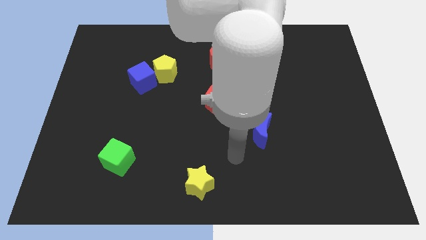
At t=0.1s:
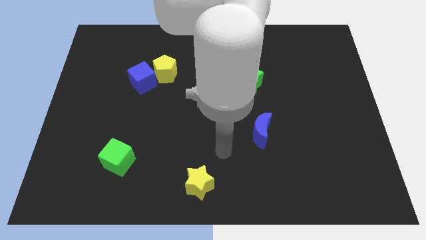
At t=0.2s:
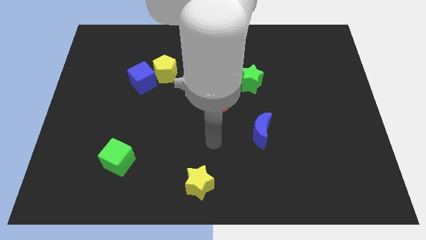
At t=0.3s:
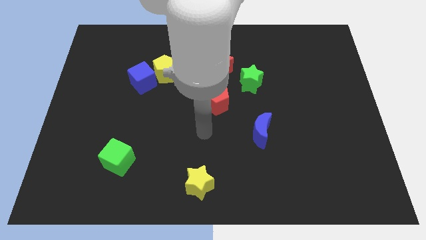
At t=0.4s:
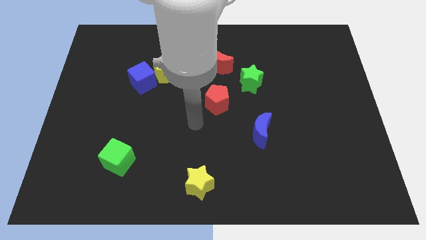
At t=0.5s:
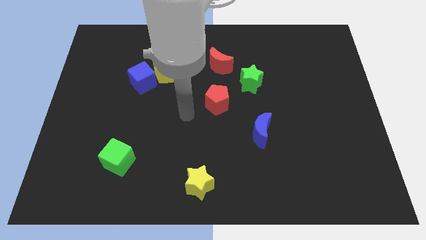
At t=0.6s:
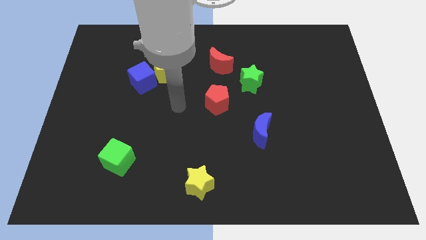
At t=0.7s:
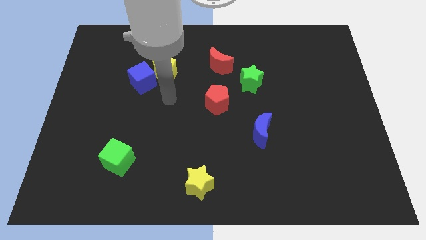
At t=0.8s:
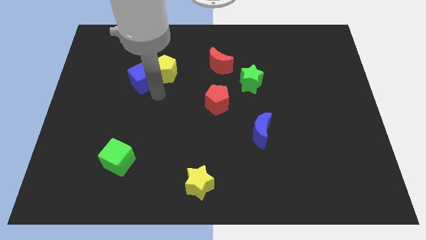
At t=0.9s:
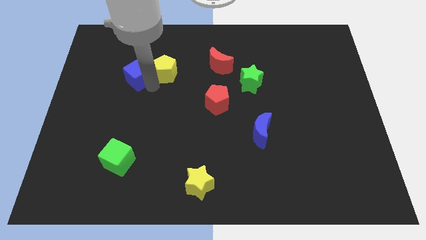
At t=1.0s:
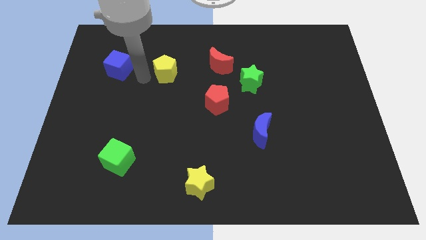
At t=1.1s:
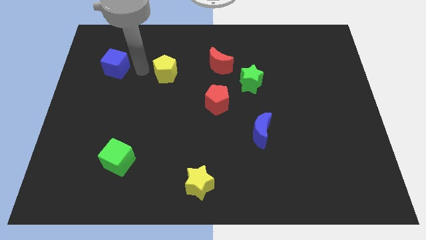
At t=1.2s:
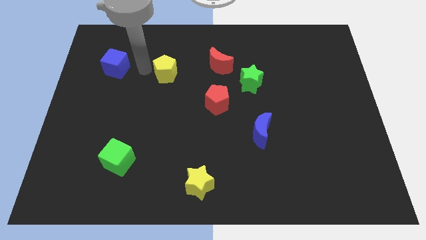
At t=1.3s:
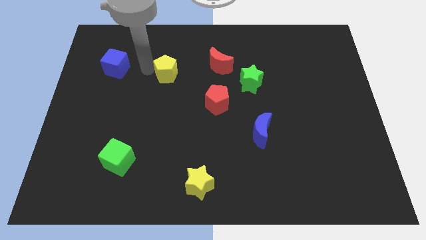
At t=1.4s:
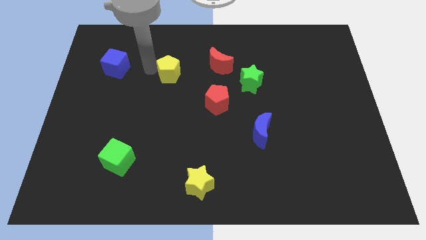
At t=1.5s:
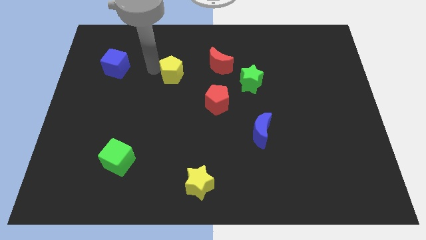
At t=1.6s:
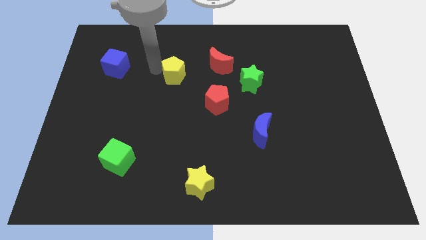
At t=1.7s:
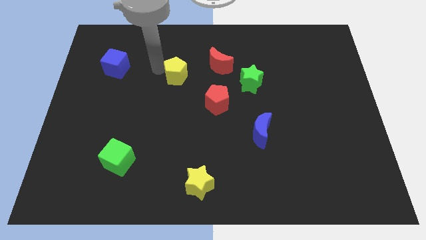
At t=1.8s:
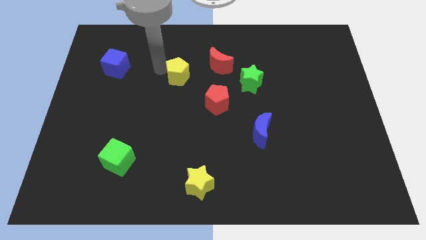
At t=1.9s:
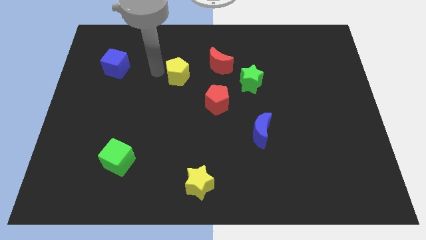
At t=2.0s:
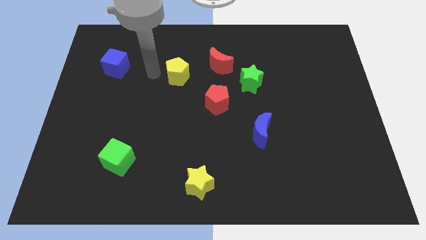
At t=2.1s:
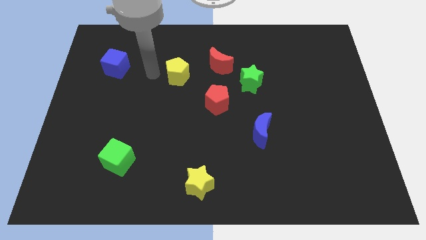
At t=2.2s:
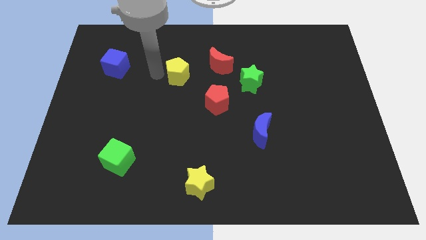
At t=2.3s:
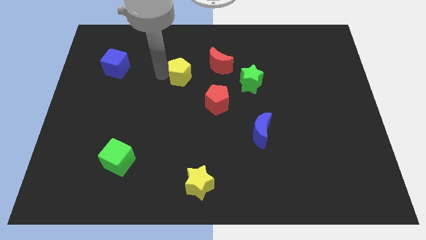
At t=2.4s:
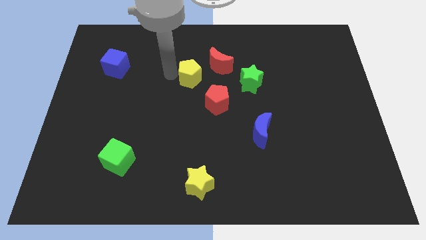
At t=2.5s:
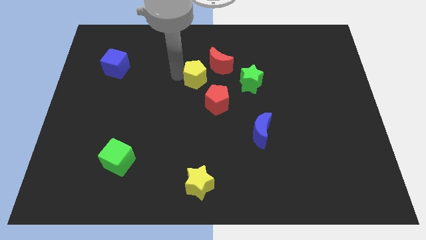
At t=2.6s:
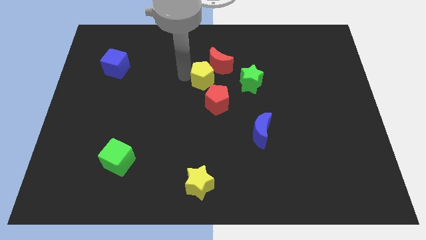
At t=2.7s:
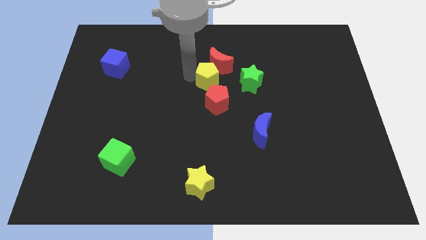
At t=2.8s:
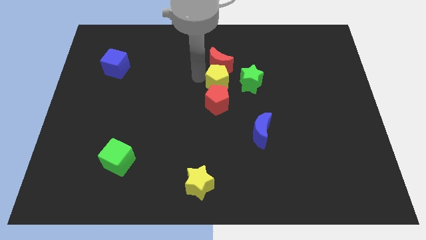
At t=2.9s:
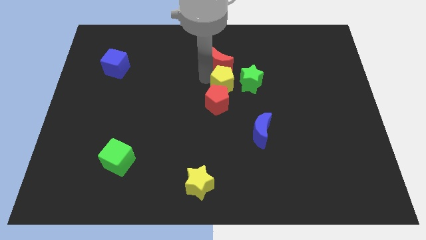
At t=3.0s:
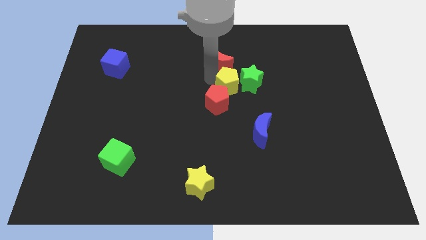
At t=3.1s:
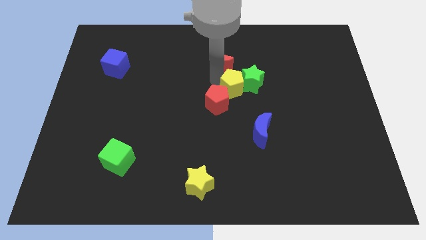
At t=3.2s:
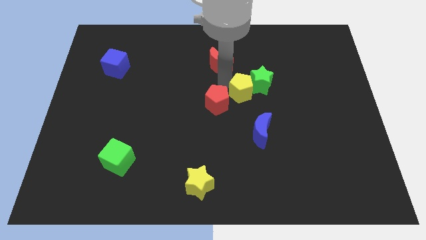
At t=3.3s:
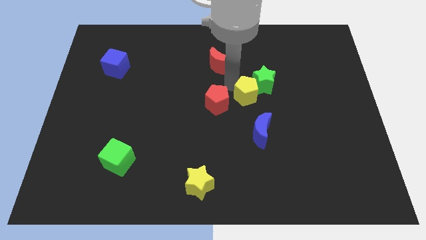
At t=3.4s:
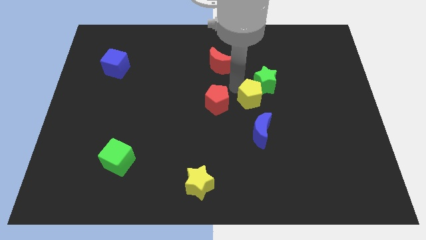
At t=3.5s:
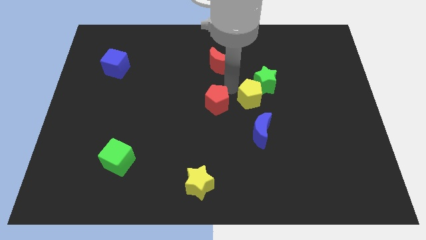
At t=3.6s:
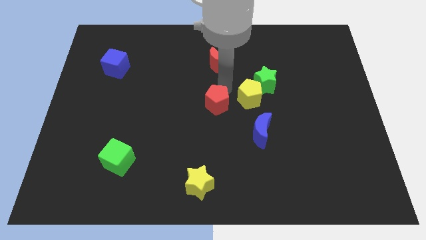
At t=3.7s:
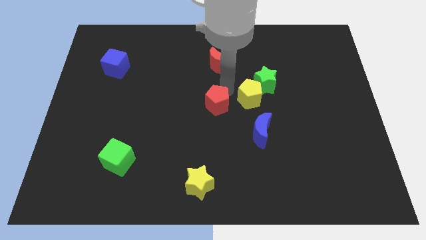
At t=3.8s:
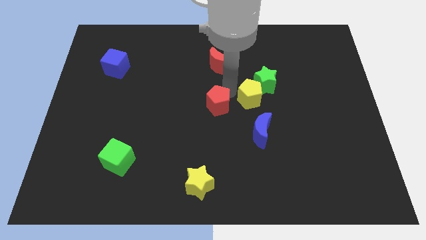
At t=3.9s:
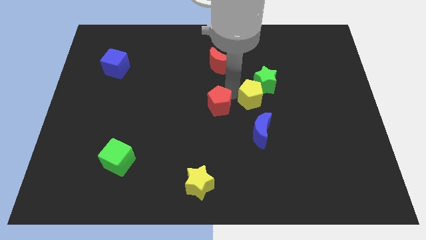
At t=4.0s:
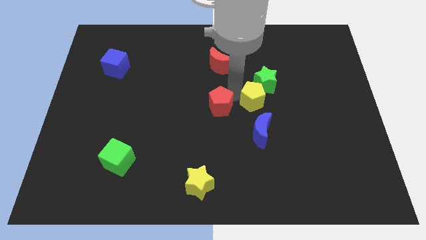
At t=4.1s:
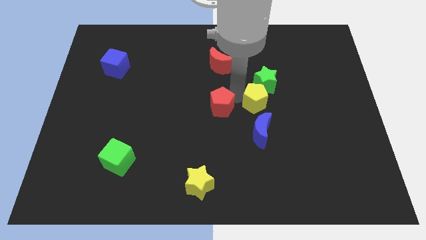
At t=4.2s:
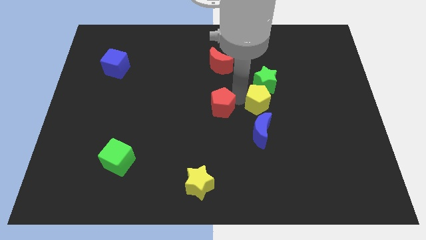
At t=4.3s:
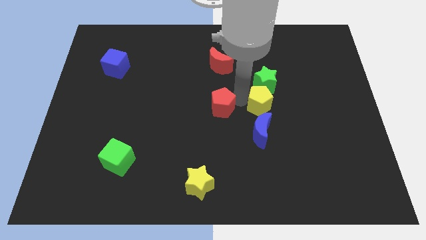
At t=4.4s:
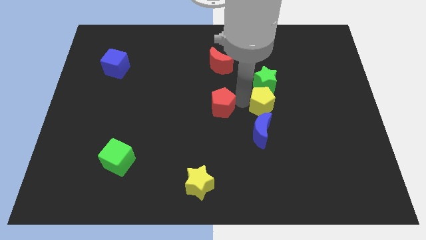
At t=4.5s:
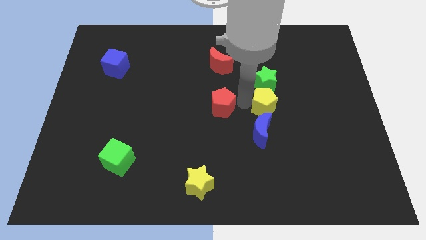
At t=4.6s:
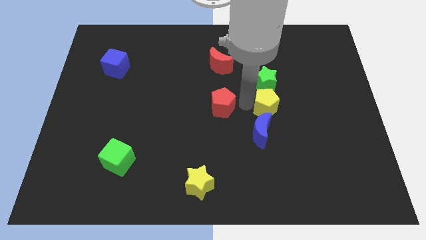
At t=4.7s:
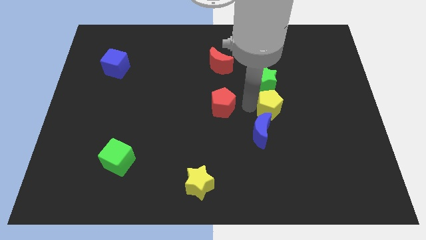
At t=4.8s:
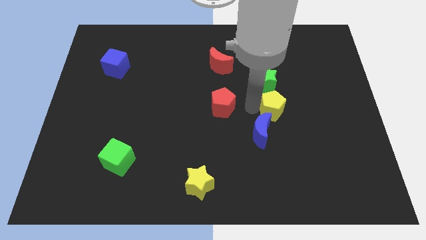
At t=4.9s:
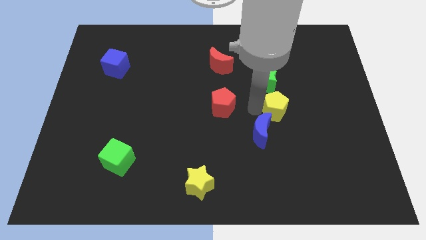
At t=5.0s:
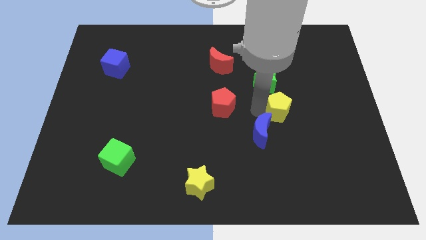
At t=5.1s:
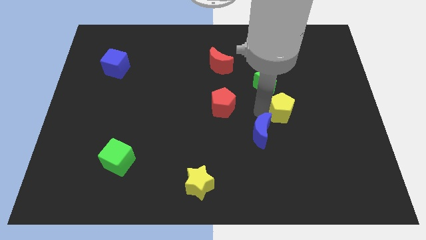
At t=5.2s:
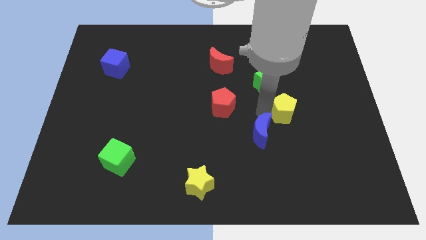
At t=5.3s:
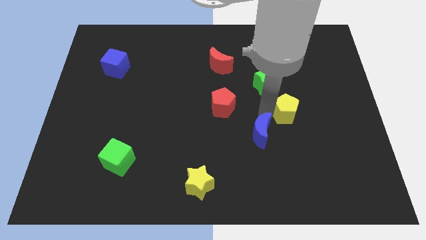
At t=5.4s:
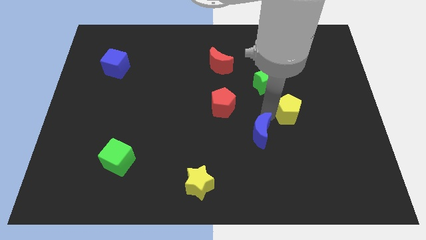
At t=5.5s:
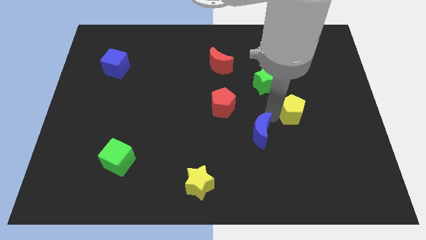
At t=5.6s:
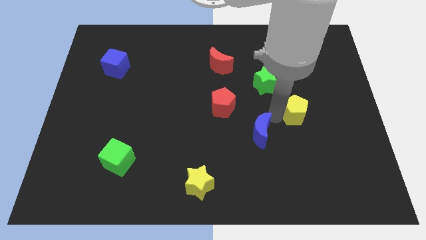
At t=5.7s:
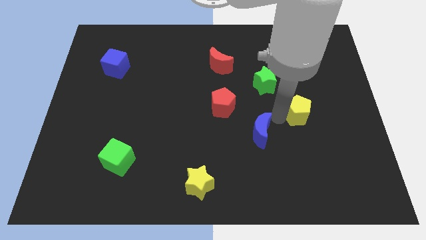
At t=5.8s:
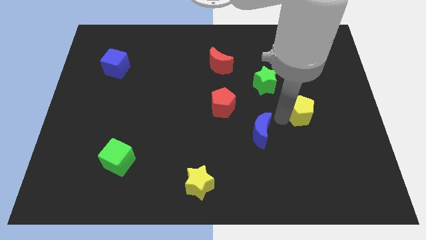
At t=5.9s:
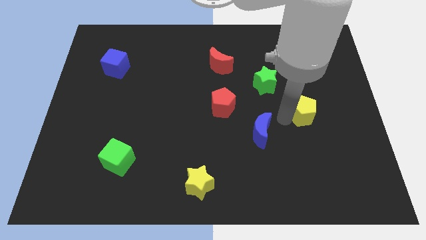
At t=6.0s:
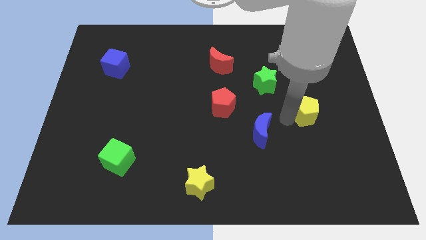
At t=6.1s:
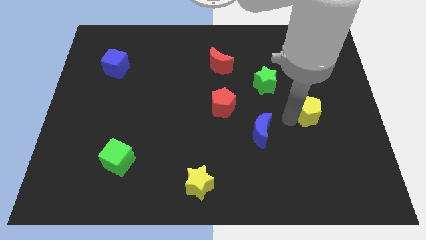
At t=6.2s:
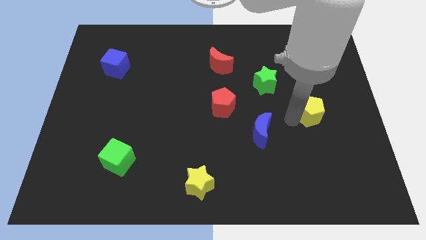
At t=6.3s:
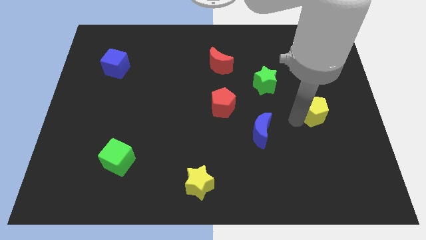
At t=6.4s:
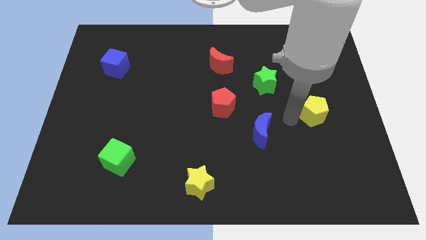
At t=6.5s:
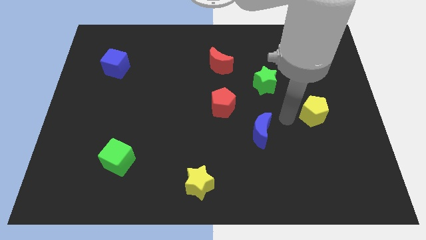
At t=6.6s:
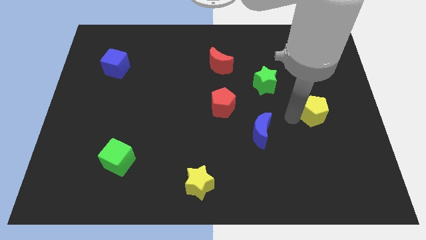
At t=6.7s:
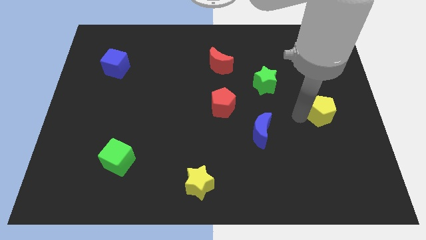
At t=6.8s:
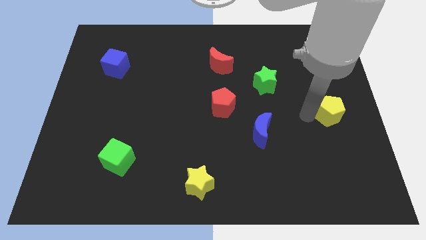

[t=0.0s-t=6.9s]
move the yellow pentagon to the right side
